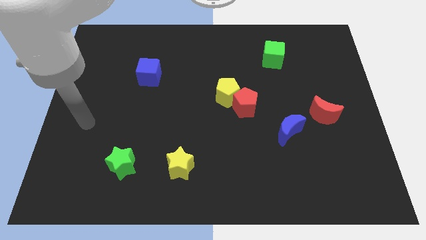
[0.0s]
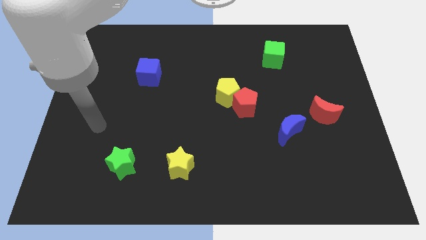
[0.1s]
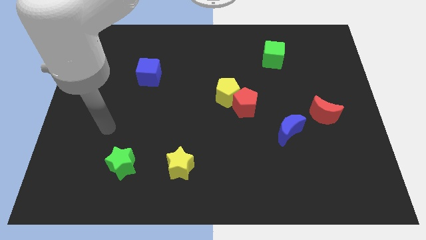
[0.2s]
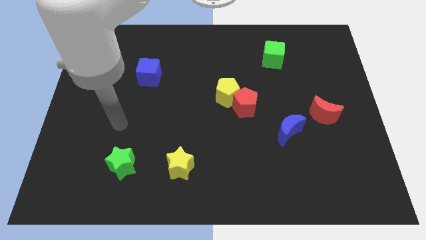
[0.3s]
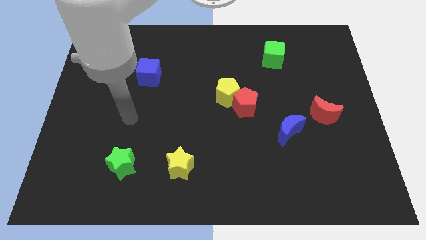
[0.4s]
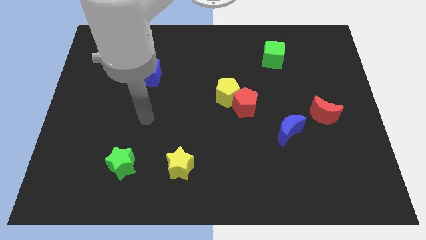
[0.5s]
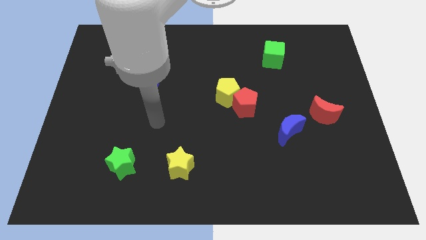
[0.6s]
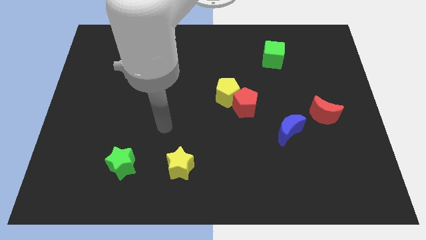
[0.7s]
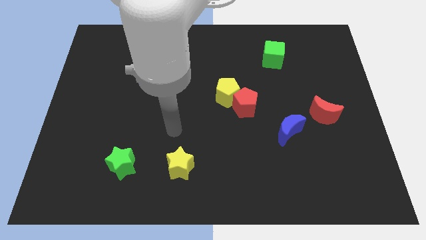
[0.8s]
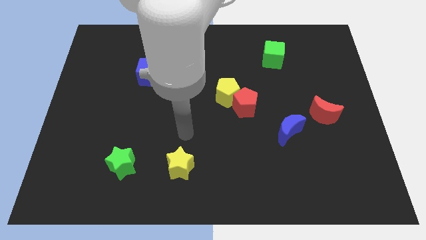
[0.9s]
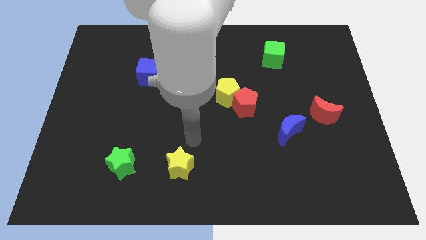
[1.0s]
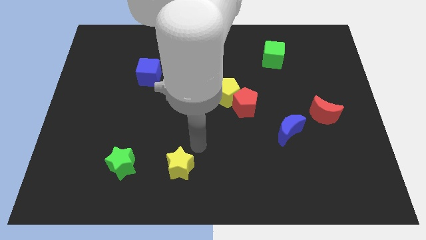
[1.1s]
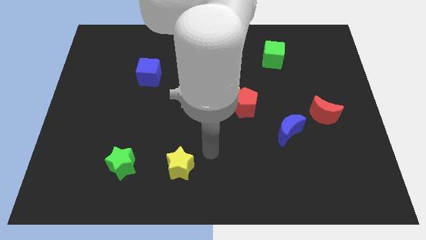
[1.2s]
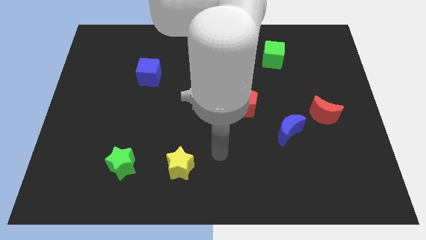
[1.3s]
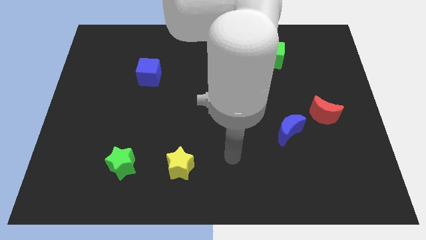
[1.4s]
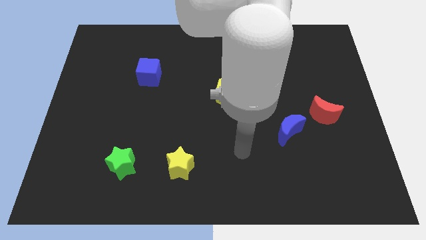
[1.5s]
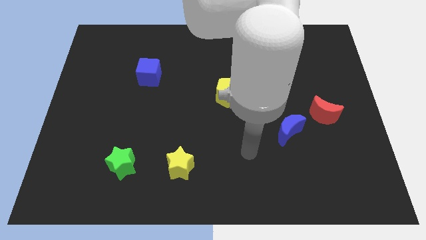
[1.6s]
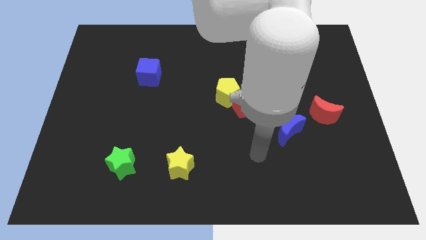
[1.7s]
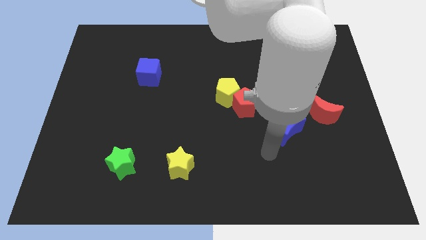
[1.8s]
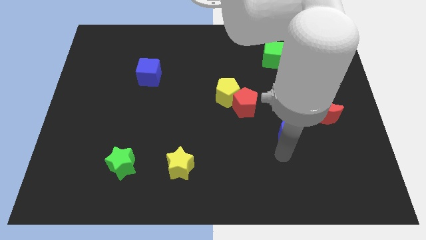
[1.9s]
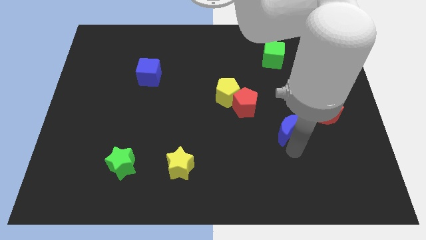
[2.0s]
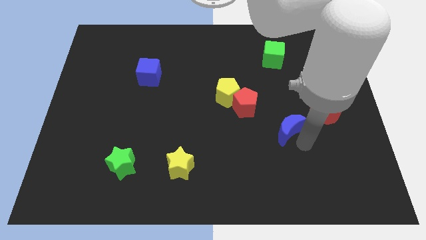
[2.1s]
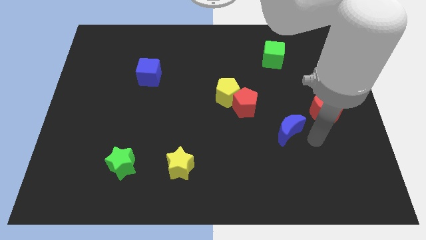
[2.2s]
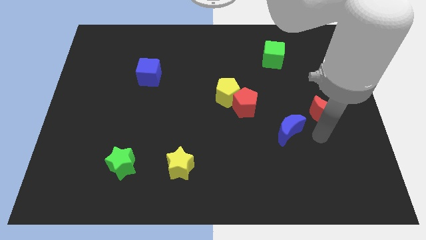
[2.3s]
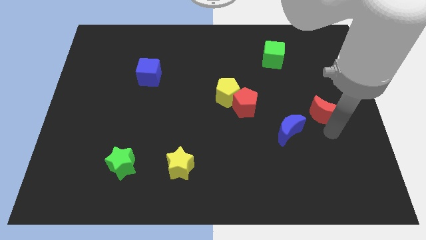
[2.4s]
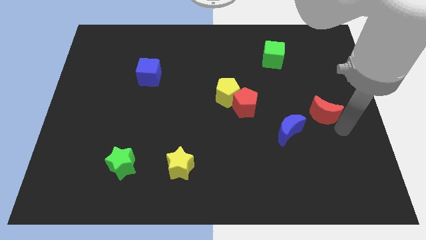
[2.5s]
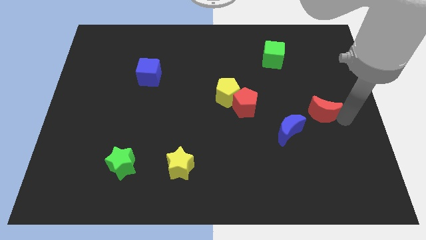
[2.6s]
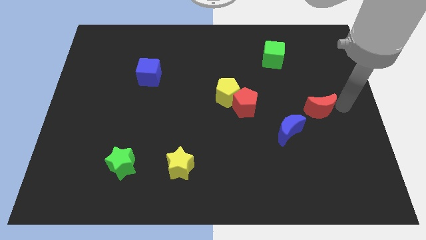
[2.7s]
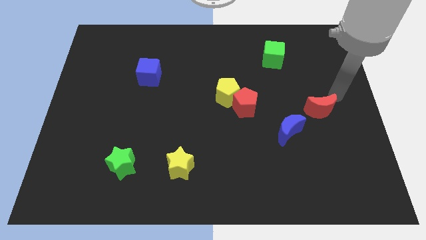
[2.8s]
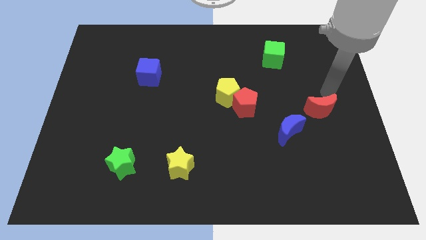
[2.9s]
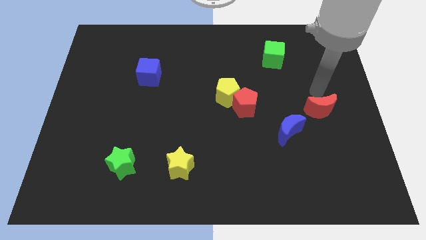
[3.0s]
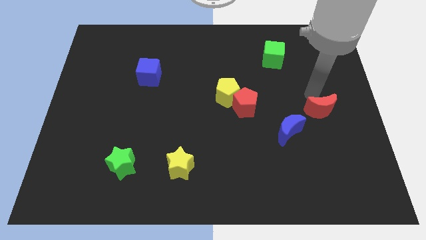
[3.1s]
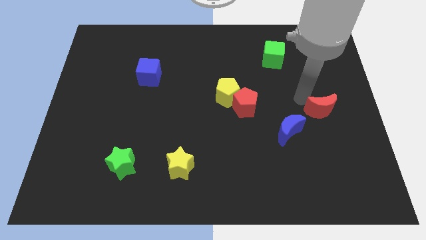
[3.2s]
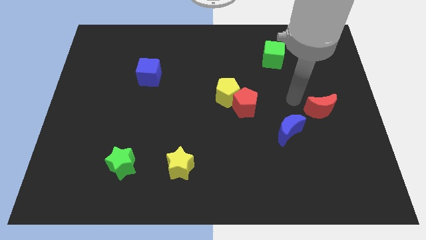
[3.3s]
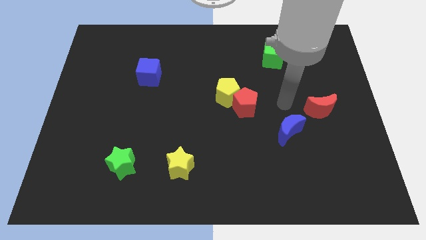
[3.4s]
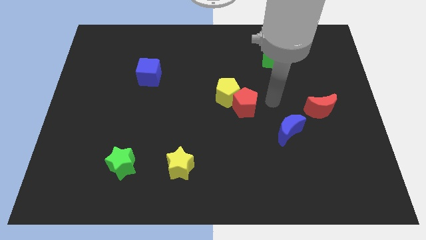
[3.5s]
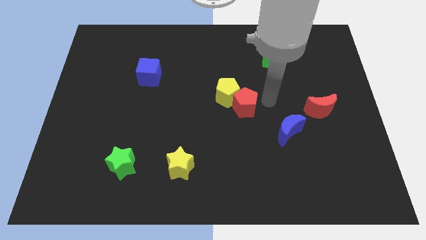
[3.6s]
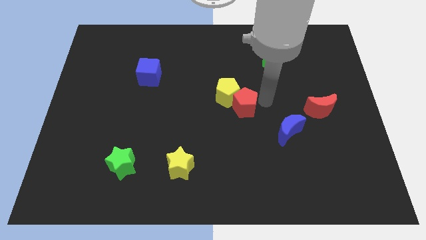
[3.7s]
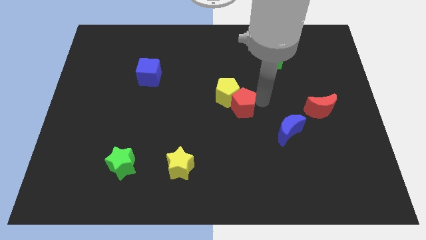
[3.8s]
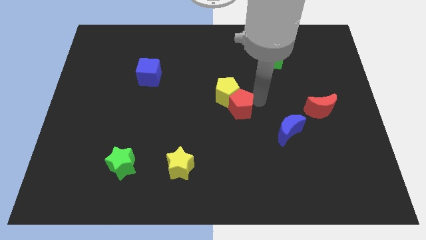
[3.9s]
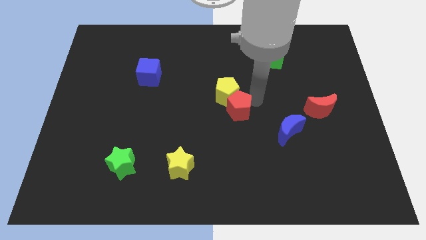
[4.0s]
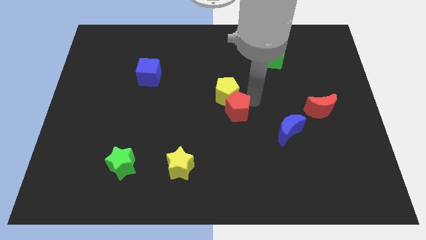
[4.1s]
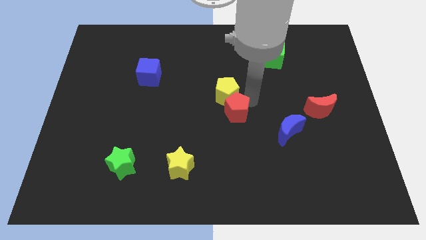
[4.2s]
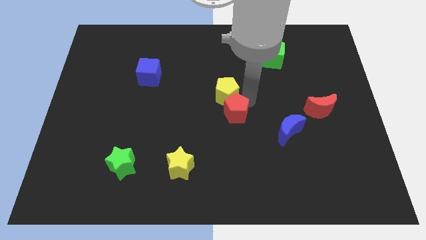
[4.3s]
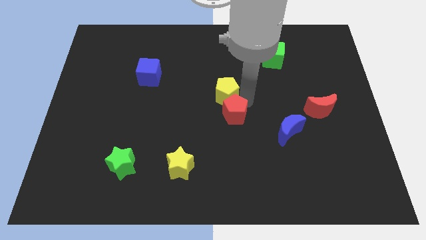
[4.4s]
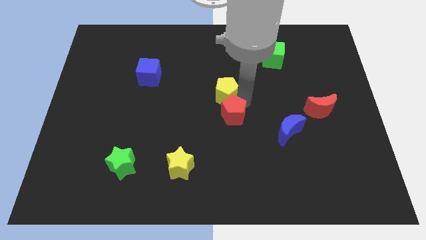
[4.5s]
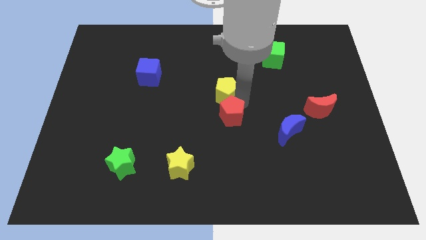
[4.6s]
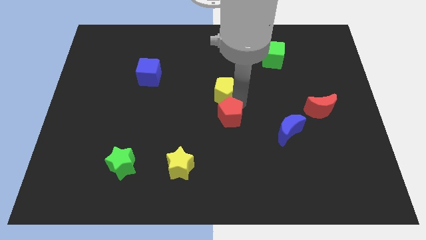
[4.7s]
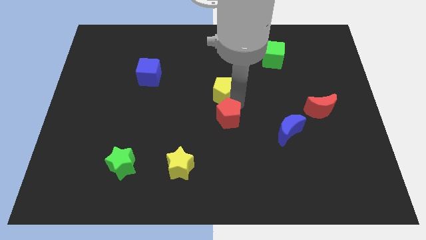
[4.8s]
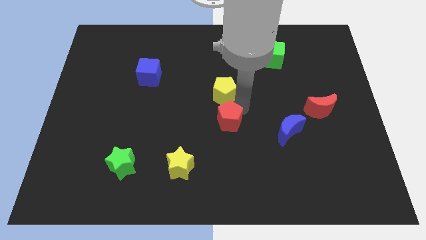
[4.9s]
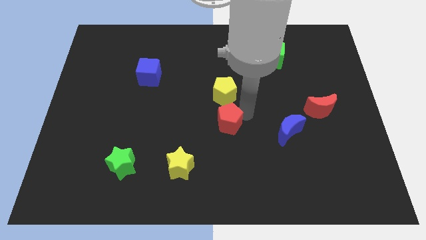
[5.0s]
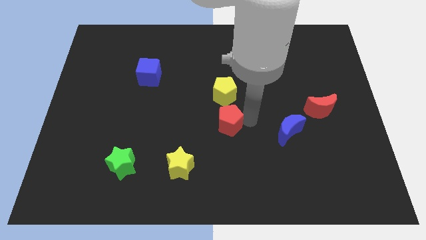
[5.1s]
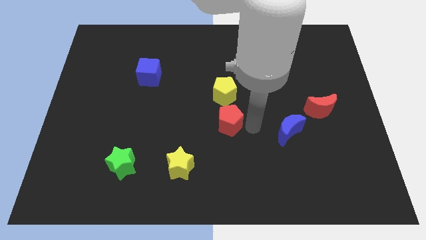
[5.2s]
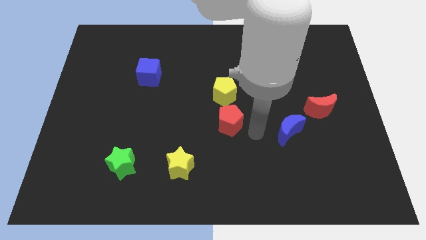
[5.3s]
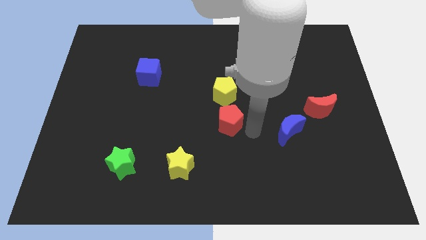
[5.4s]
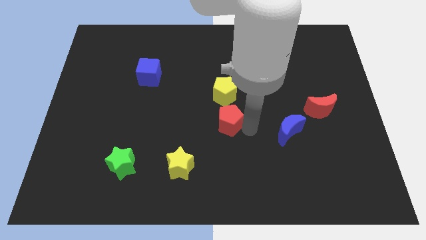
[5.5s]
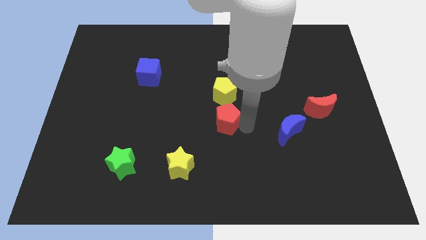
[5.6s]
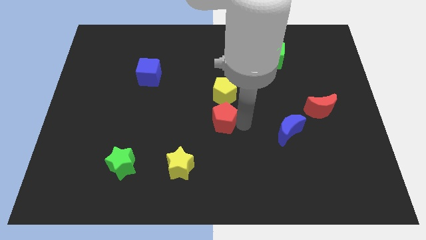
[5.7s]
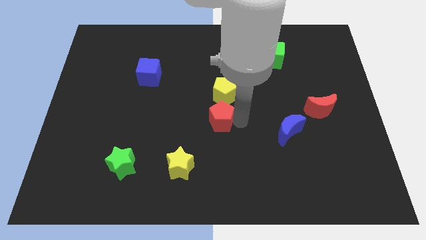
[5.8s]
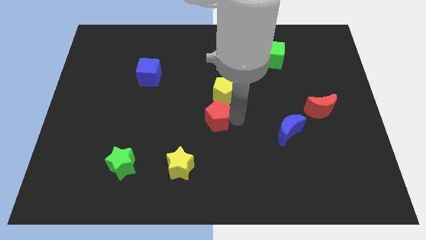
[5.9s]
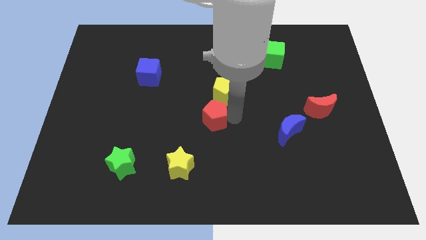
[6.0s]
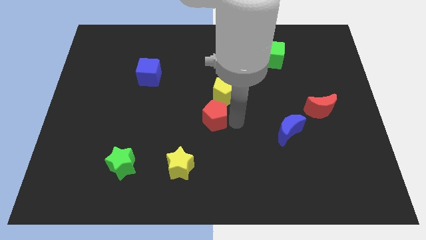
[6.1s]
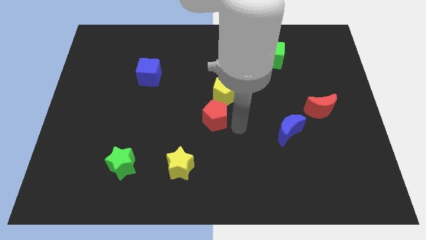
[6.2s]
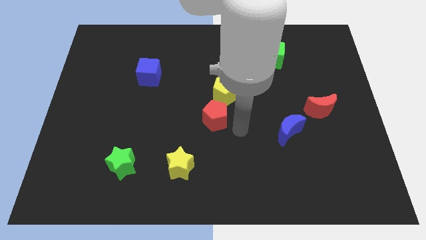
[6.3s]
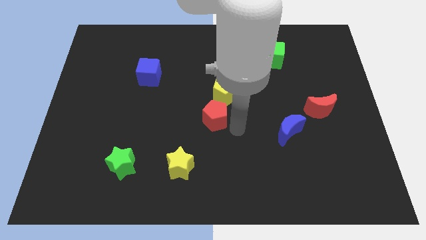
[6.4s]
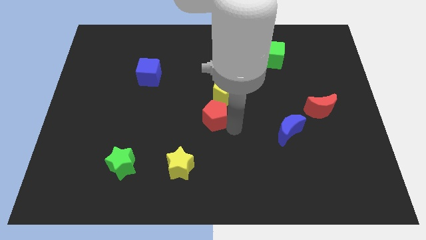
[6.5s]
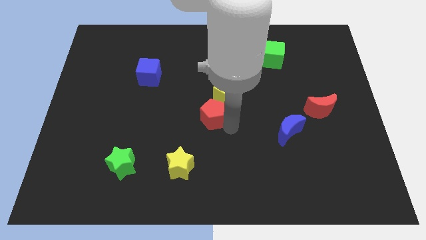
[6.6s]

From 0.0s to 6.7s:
move the red pentagon to the left slightly

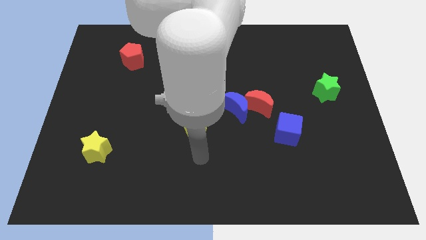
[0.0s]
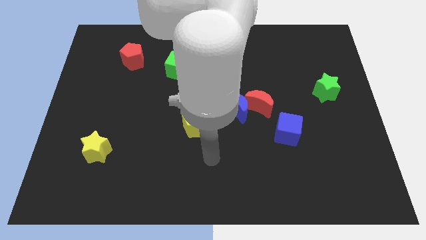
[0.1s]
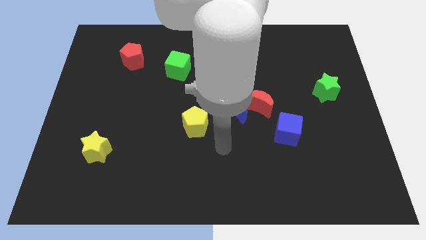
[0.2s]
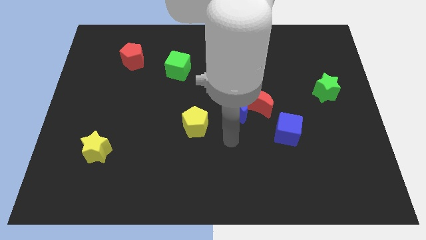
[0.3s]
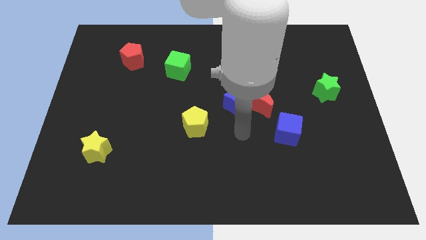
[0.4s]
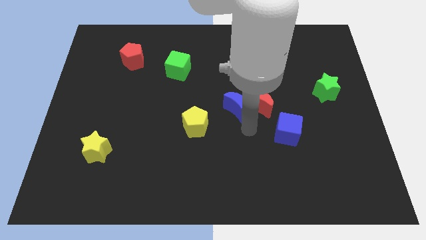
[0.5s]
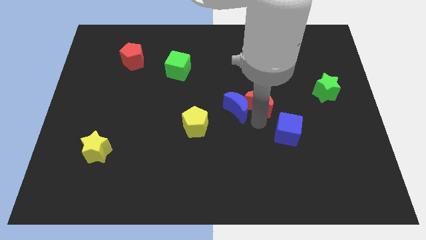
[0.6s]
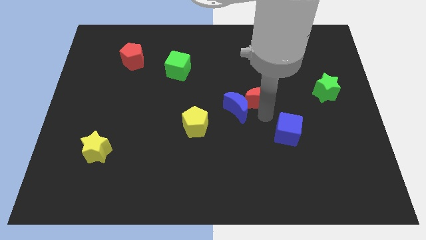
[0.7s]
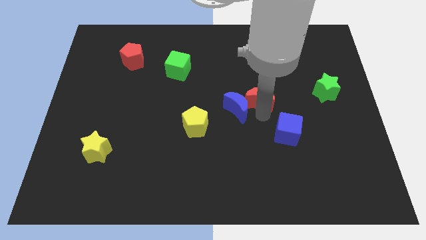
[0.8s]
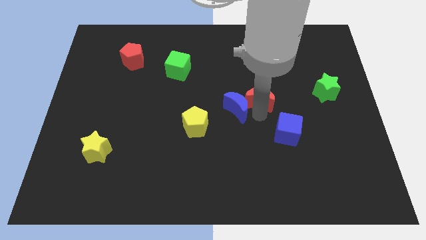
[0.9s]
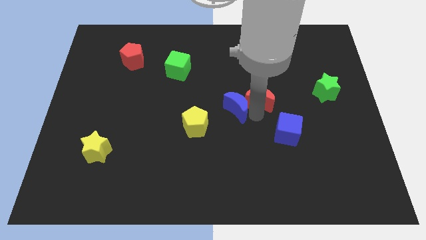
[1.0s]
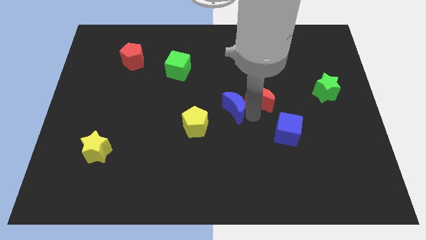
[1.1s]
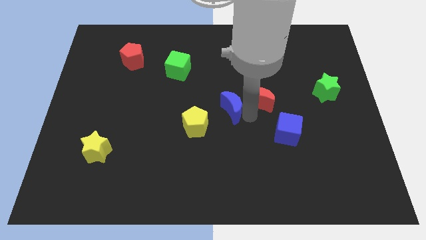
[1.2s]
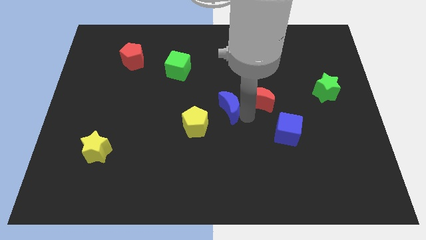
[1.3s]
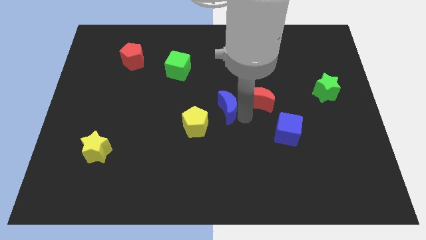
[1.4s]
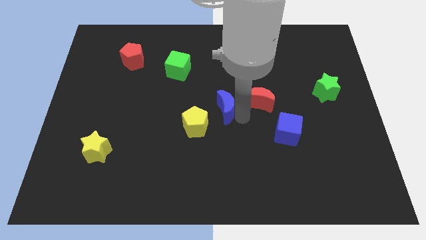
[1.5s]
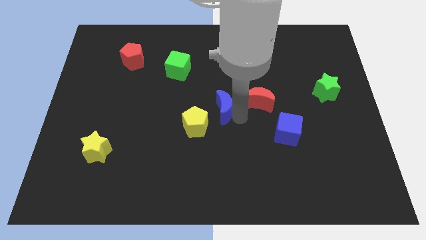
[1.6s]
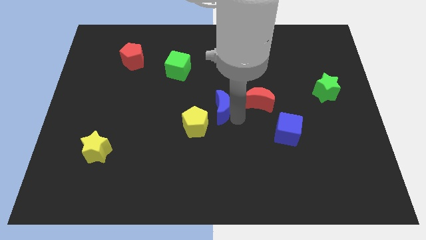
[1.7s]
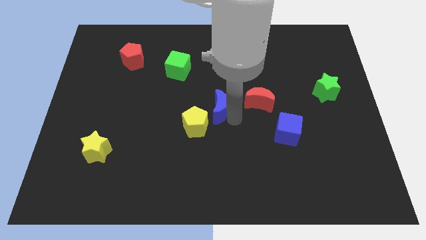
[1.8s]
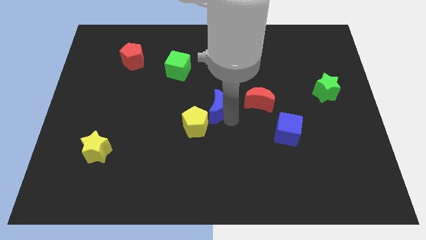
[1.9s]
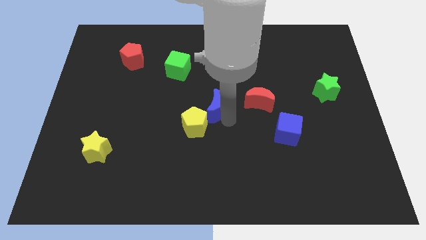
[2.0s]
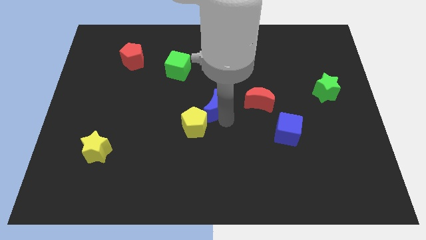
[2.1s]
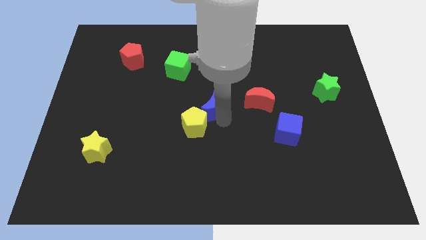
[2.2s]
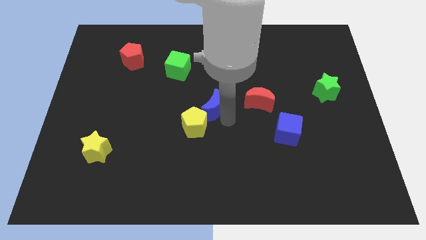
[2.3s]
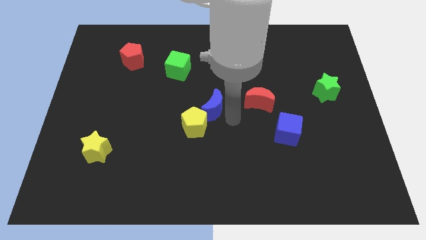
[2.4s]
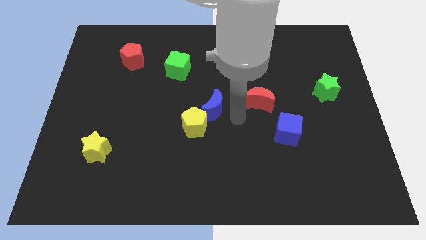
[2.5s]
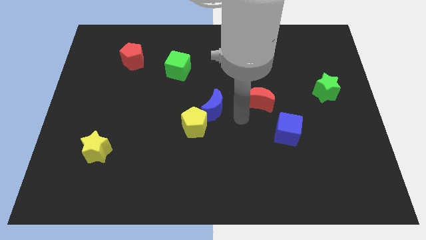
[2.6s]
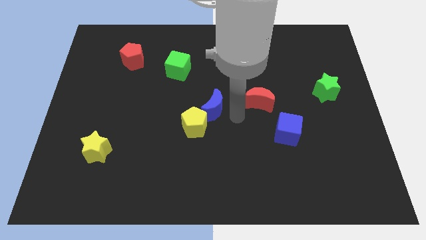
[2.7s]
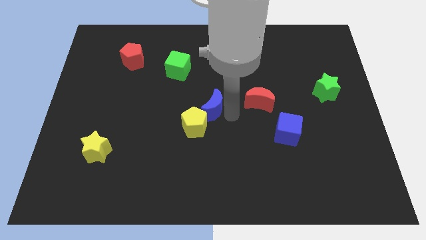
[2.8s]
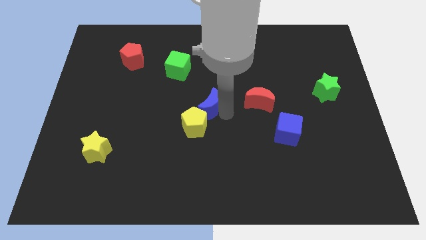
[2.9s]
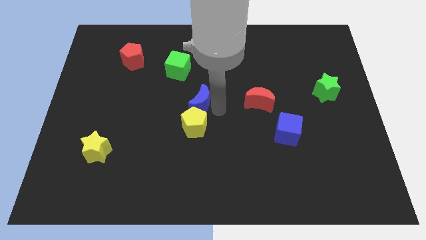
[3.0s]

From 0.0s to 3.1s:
slightly move the blue moon to the left
